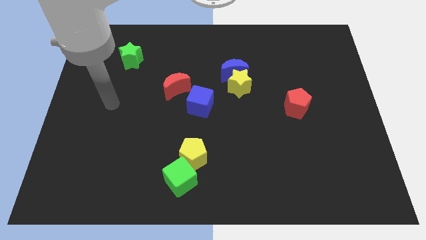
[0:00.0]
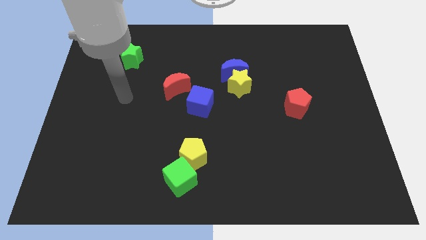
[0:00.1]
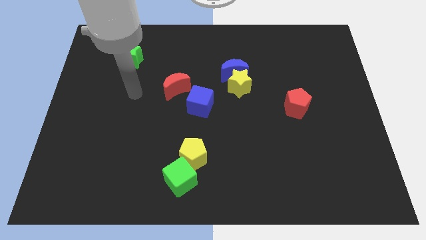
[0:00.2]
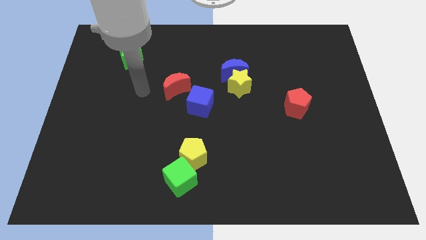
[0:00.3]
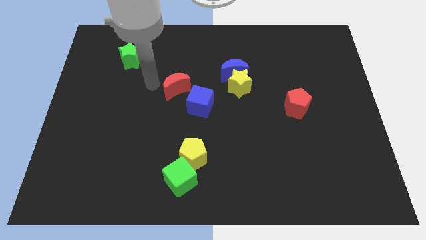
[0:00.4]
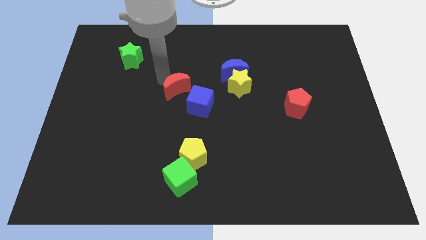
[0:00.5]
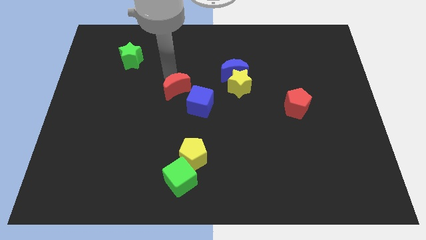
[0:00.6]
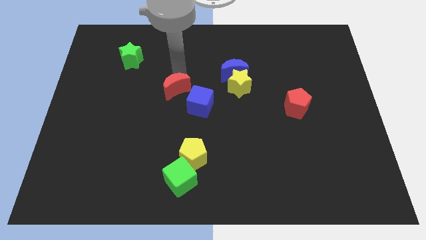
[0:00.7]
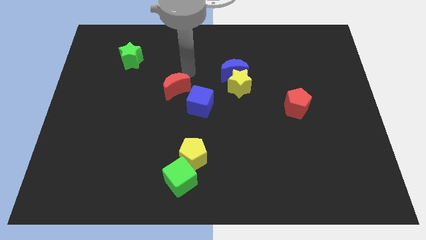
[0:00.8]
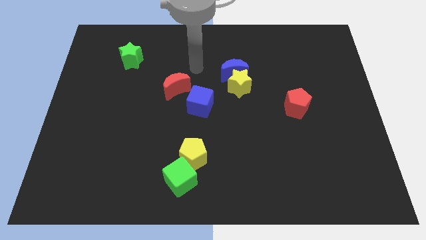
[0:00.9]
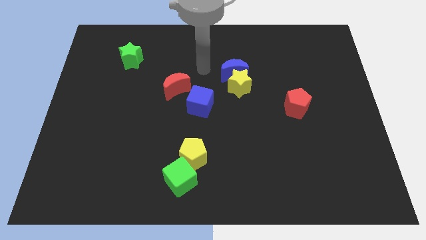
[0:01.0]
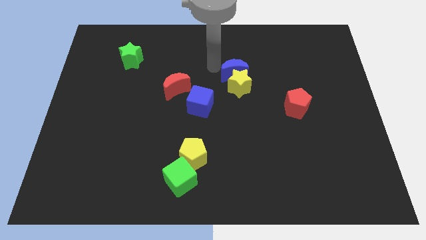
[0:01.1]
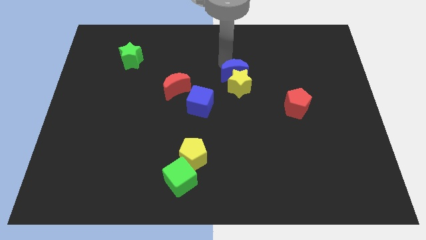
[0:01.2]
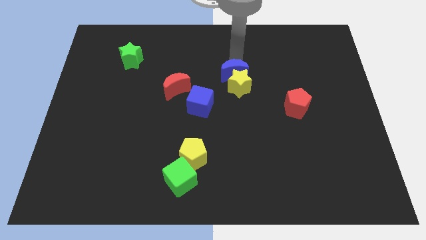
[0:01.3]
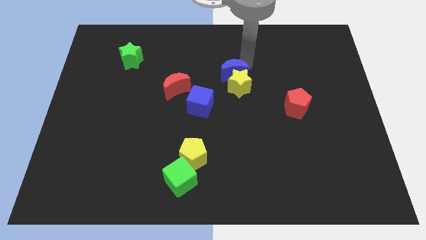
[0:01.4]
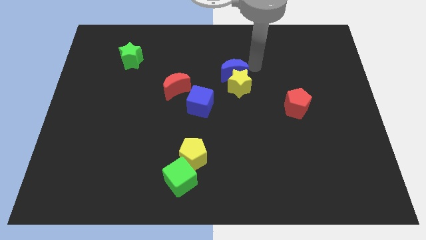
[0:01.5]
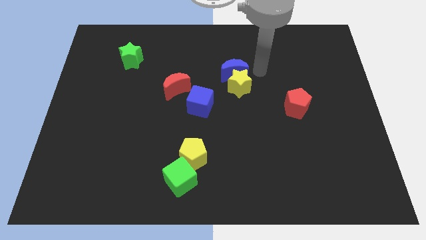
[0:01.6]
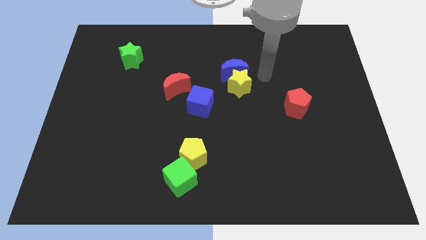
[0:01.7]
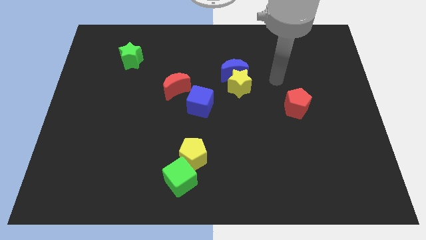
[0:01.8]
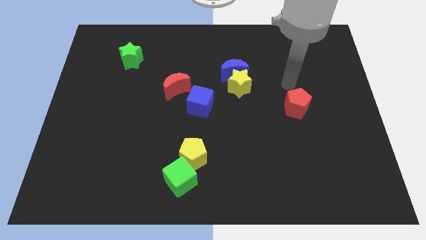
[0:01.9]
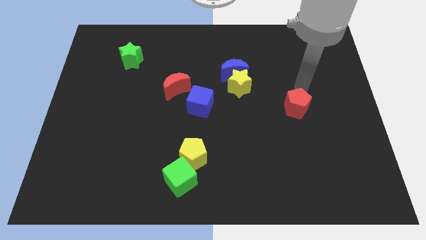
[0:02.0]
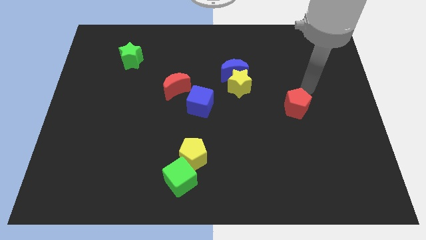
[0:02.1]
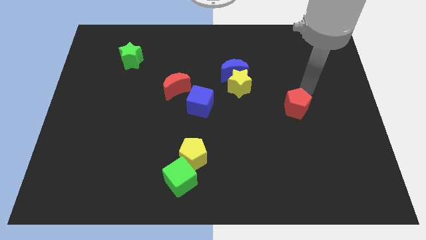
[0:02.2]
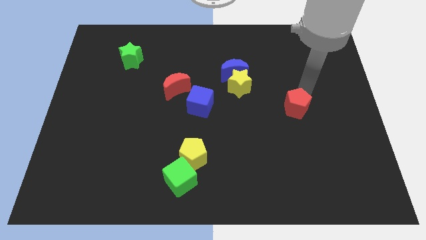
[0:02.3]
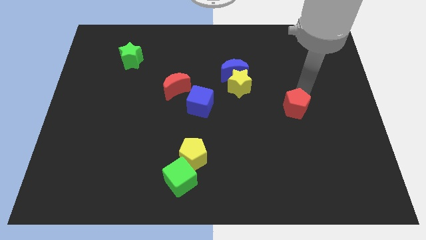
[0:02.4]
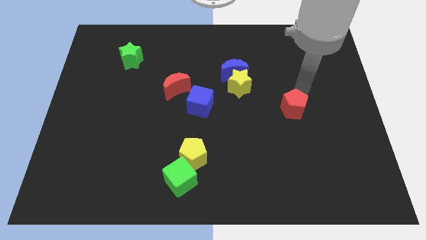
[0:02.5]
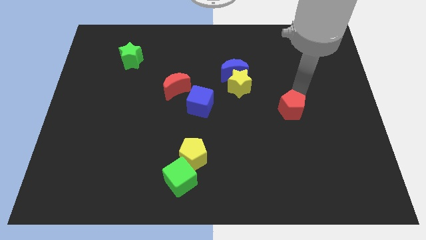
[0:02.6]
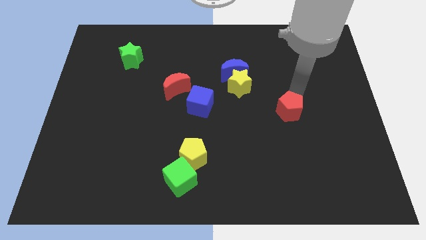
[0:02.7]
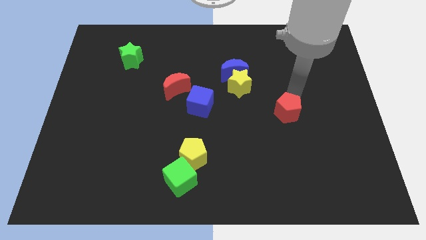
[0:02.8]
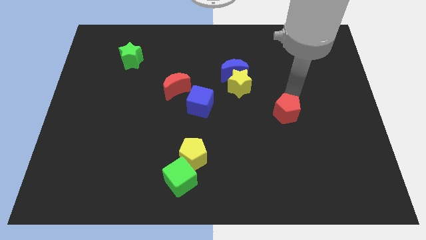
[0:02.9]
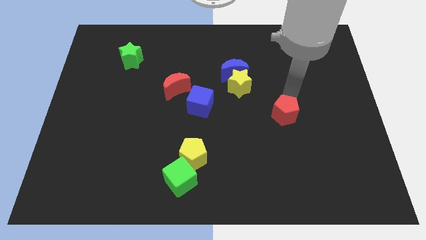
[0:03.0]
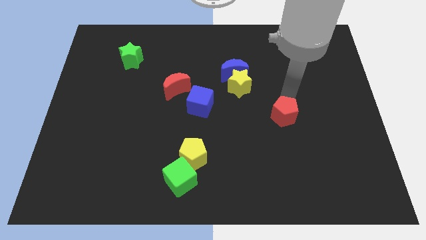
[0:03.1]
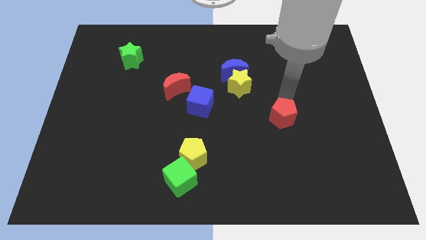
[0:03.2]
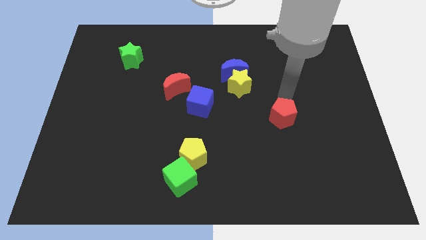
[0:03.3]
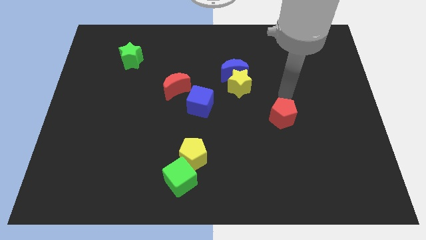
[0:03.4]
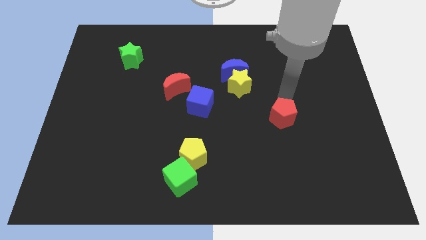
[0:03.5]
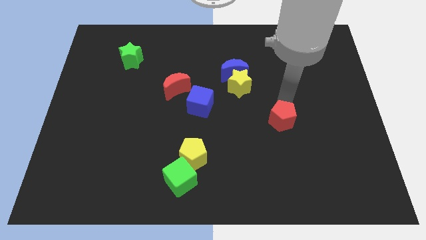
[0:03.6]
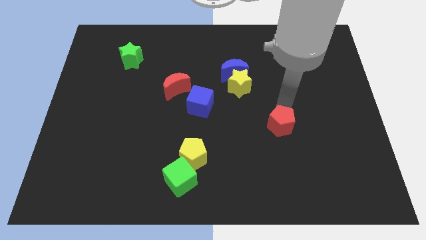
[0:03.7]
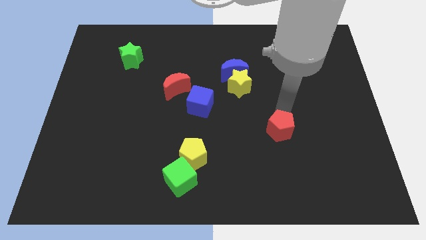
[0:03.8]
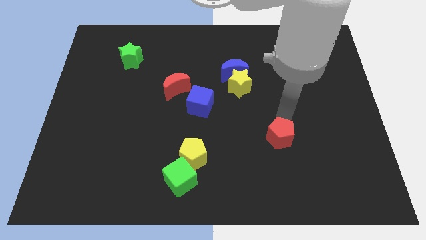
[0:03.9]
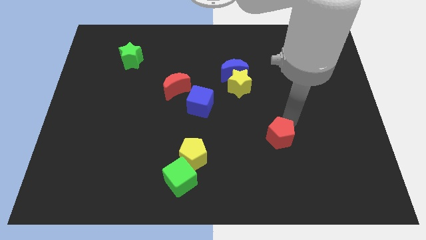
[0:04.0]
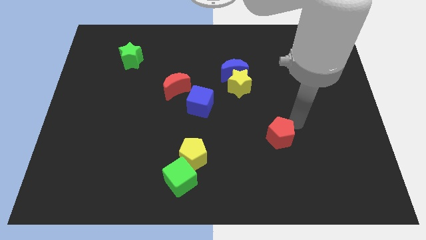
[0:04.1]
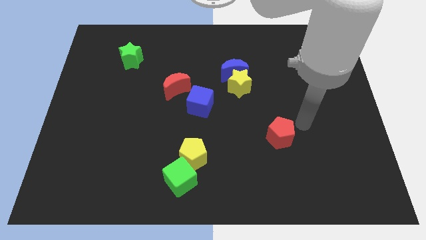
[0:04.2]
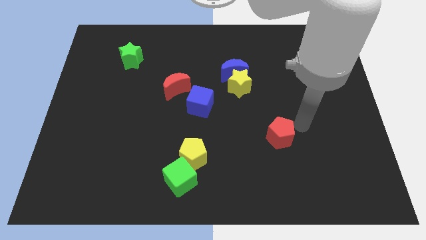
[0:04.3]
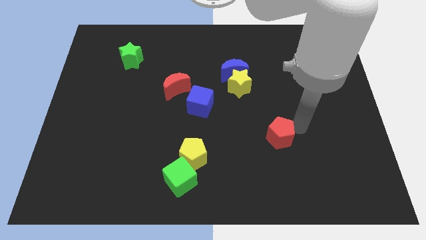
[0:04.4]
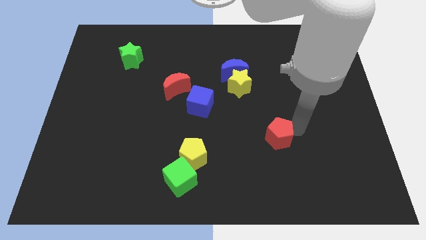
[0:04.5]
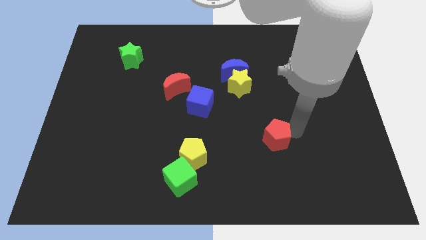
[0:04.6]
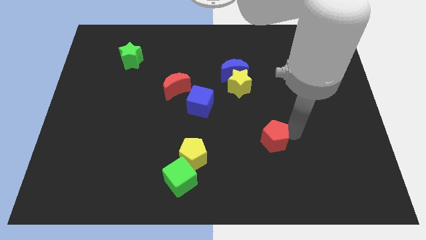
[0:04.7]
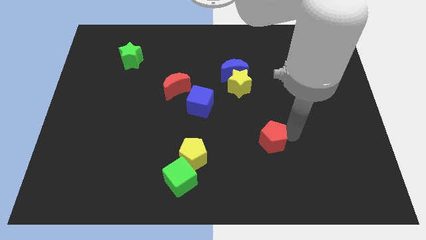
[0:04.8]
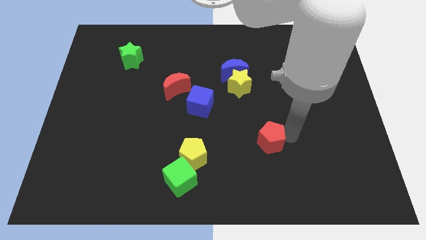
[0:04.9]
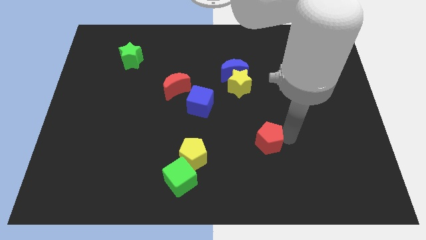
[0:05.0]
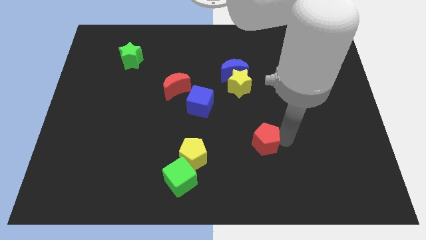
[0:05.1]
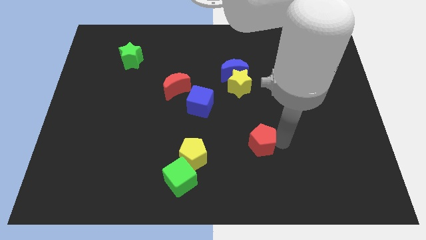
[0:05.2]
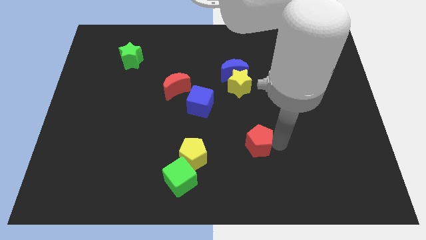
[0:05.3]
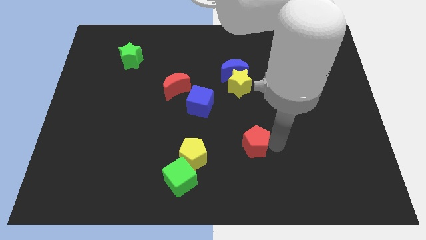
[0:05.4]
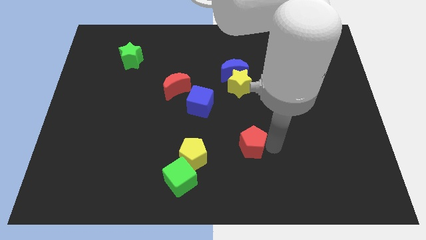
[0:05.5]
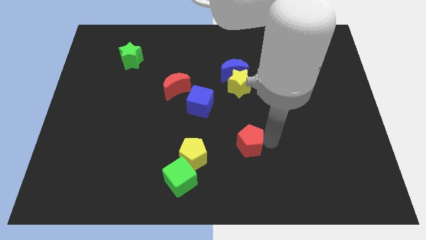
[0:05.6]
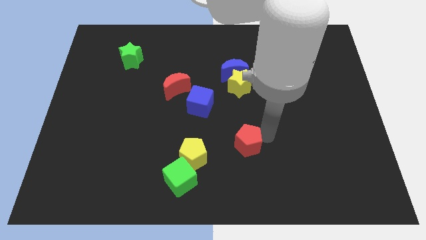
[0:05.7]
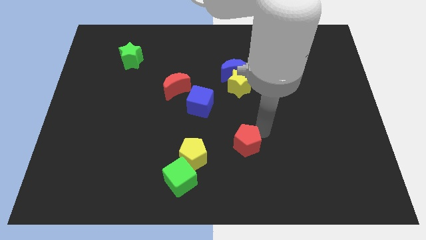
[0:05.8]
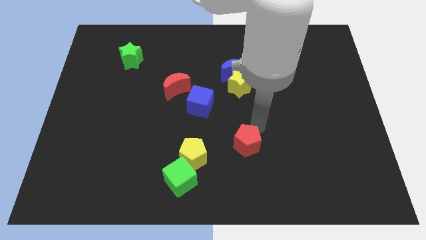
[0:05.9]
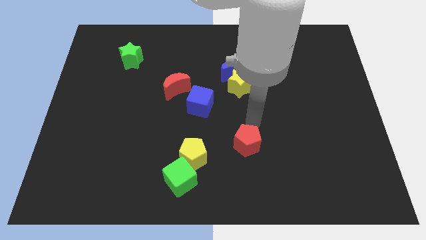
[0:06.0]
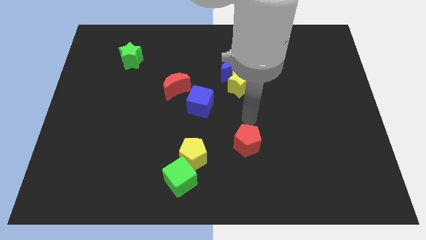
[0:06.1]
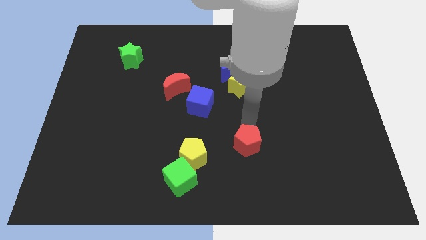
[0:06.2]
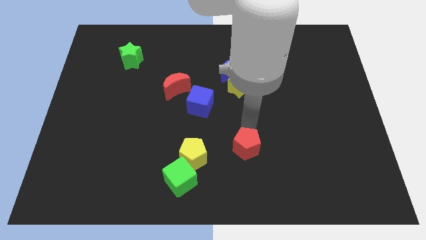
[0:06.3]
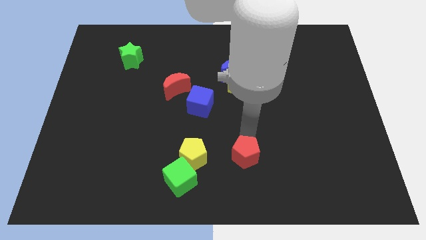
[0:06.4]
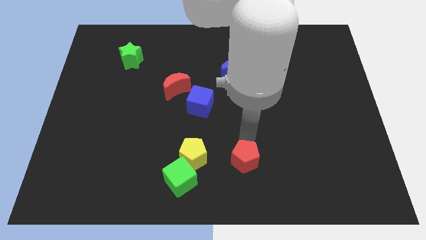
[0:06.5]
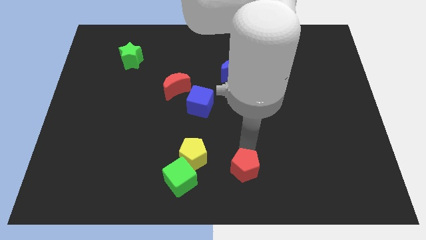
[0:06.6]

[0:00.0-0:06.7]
move the red pentagon to the bottom side
